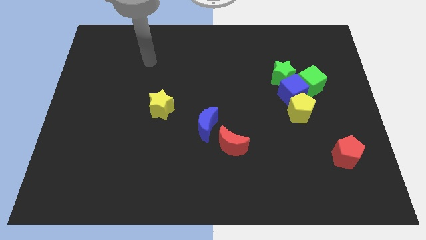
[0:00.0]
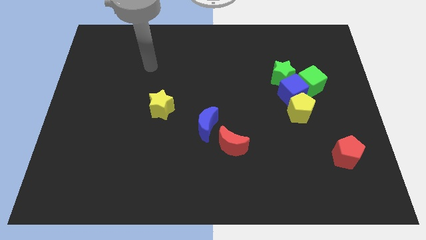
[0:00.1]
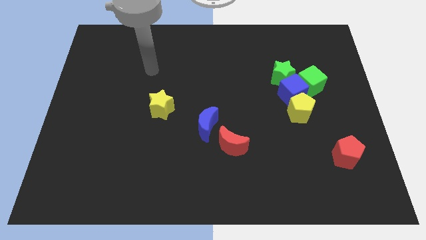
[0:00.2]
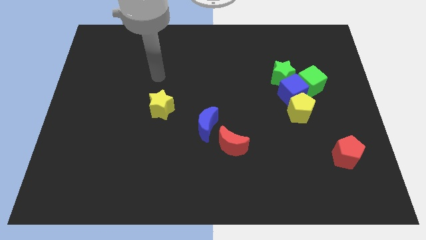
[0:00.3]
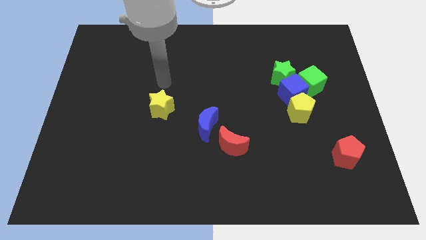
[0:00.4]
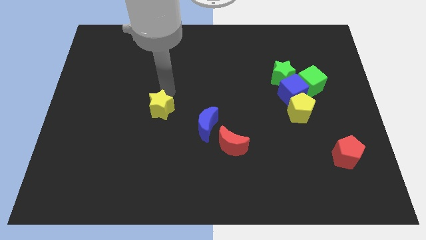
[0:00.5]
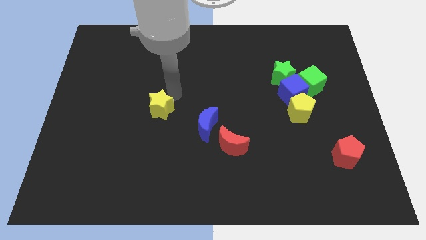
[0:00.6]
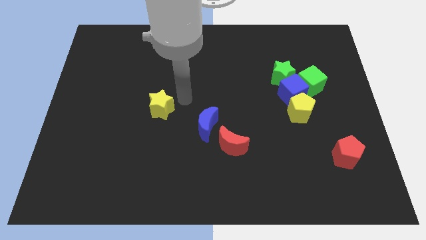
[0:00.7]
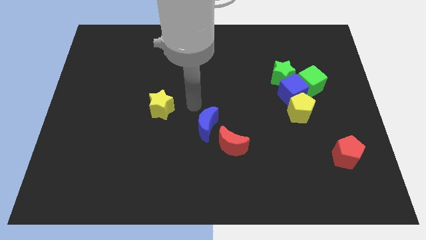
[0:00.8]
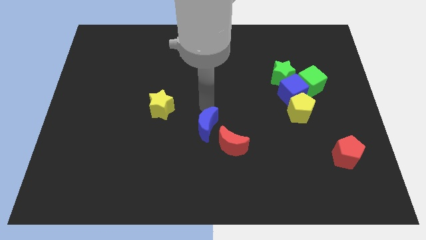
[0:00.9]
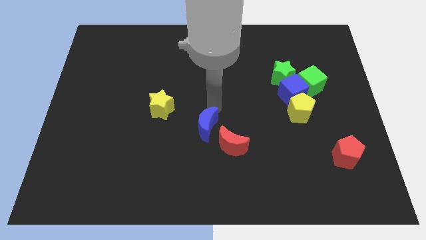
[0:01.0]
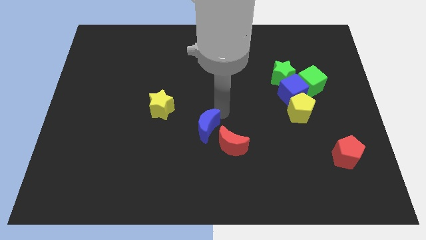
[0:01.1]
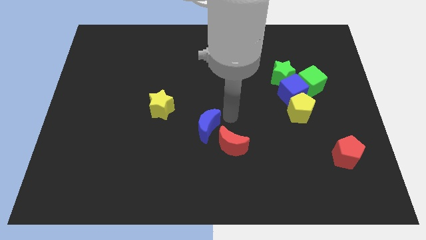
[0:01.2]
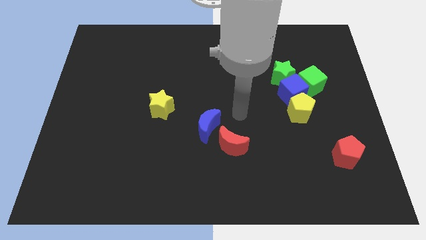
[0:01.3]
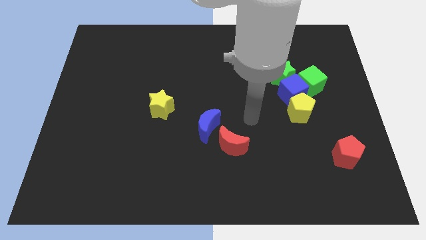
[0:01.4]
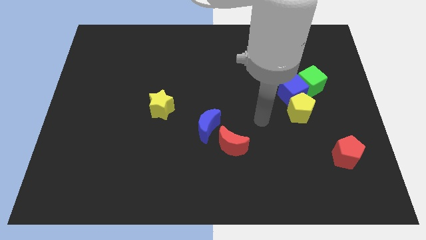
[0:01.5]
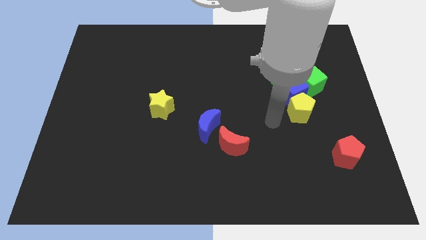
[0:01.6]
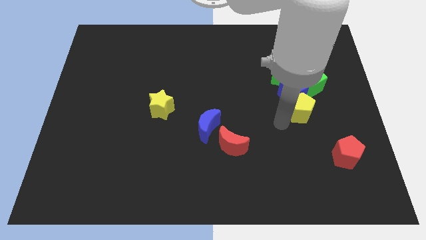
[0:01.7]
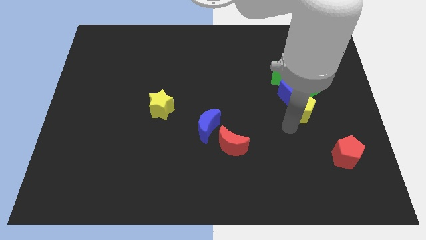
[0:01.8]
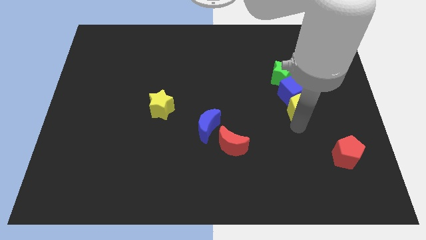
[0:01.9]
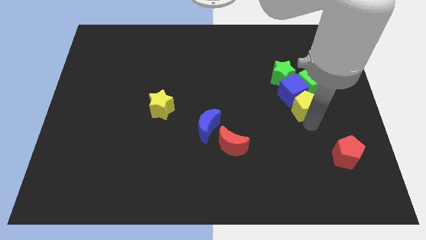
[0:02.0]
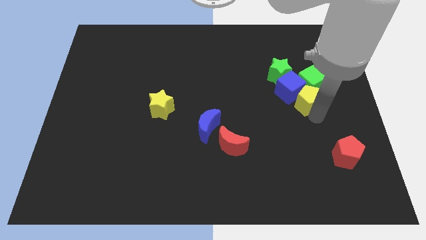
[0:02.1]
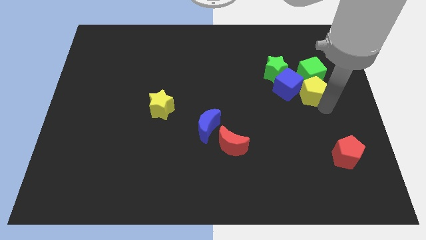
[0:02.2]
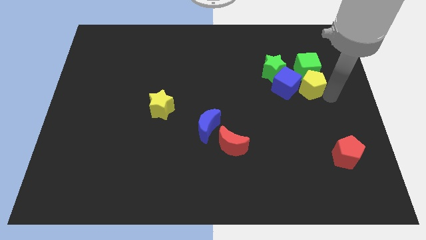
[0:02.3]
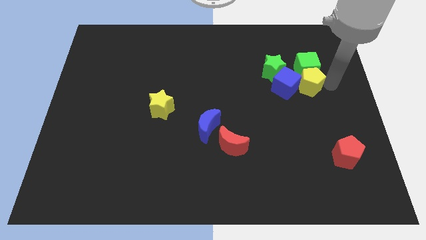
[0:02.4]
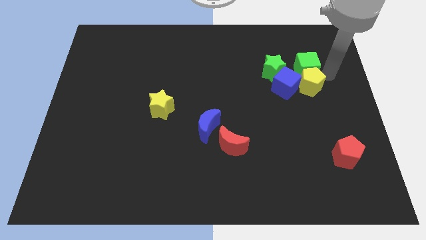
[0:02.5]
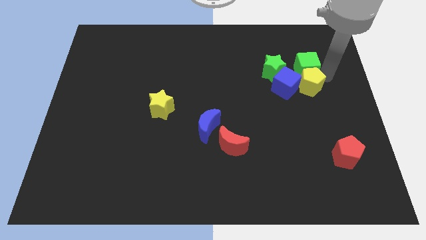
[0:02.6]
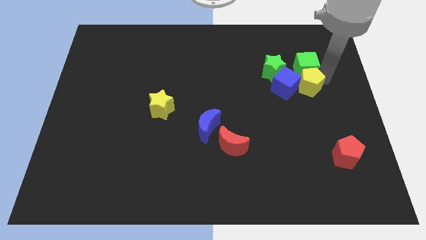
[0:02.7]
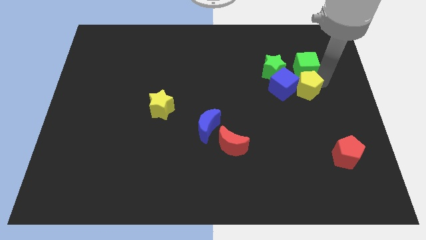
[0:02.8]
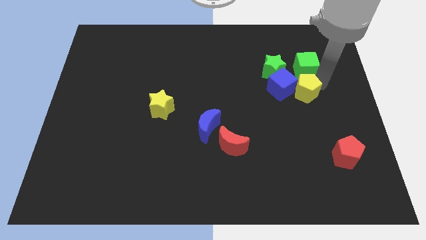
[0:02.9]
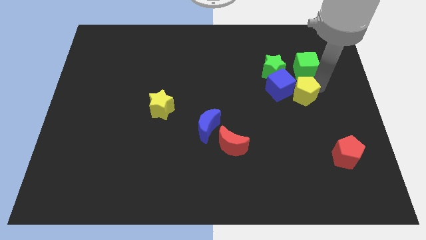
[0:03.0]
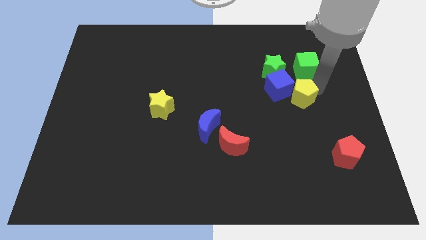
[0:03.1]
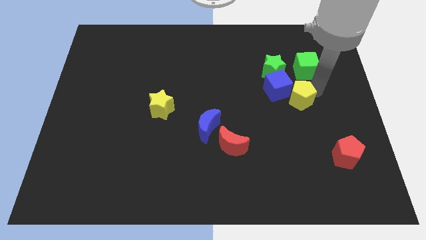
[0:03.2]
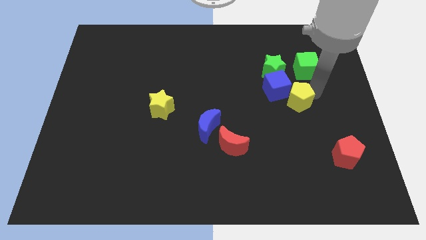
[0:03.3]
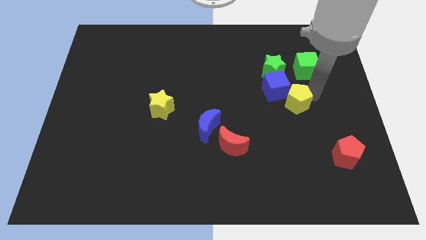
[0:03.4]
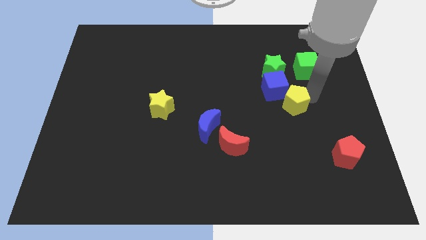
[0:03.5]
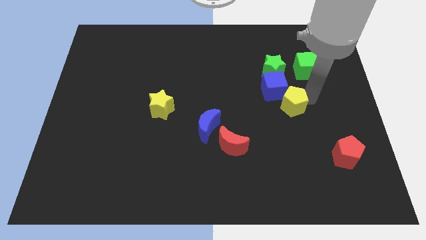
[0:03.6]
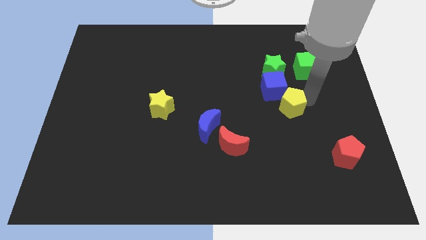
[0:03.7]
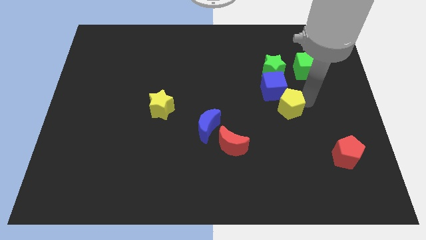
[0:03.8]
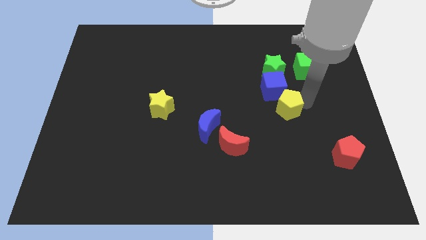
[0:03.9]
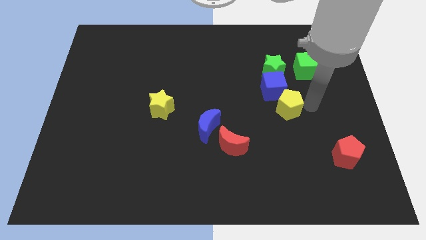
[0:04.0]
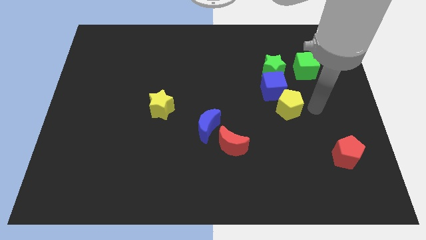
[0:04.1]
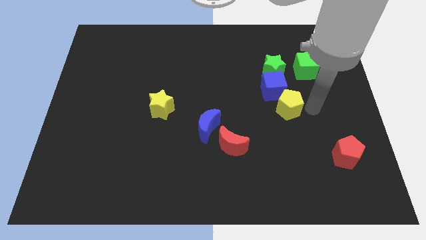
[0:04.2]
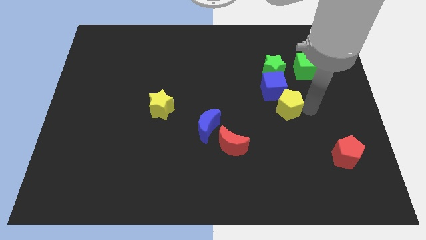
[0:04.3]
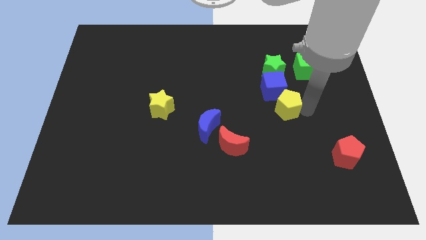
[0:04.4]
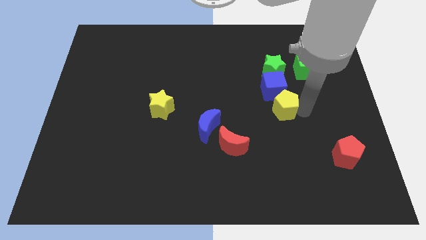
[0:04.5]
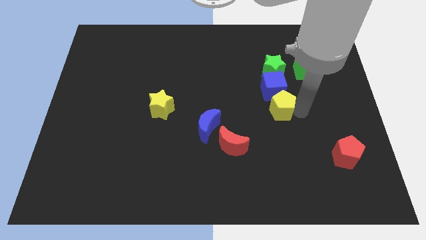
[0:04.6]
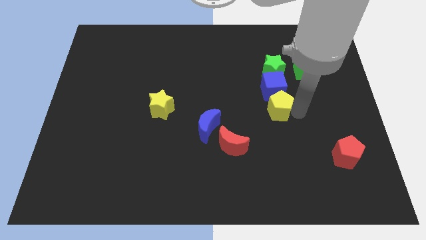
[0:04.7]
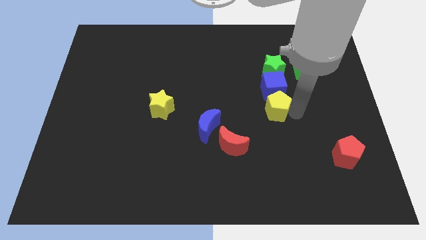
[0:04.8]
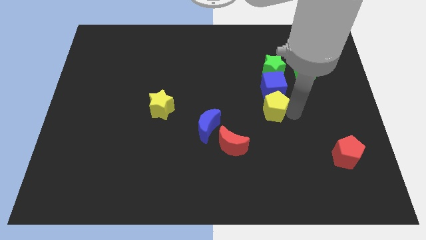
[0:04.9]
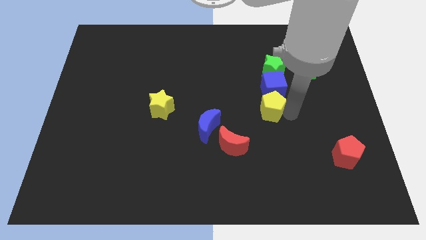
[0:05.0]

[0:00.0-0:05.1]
move the yellow pentagon a little bit left

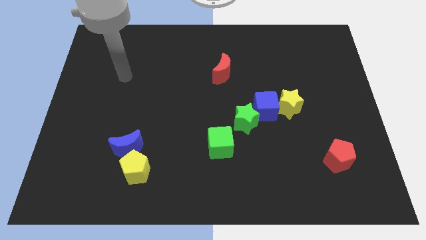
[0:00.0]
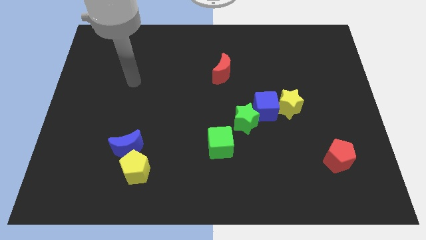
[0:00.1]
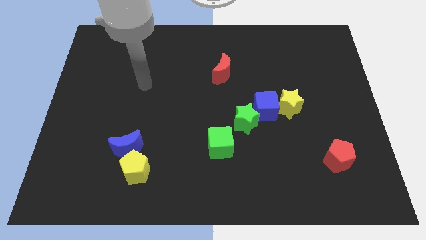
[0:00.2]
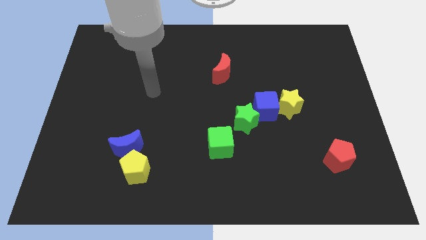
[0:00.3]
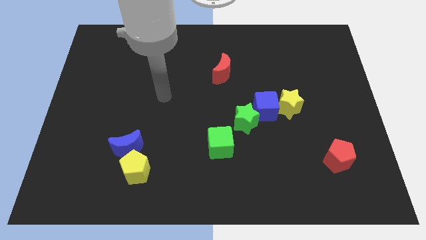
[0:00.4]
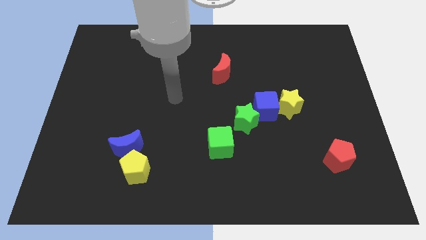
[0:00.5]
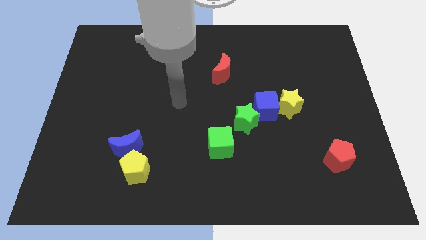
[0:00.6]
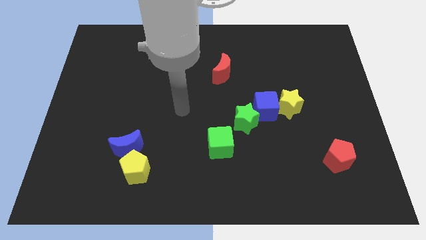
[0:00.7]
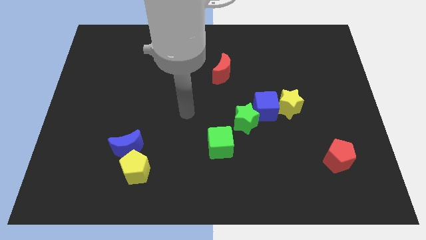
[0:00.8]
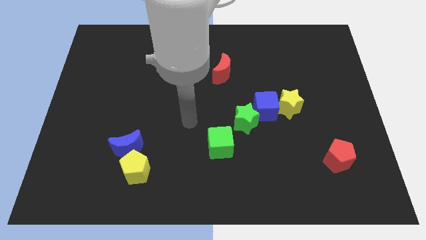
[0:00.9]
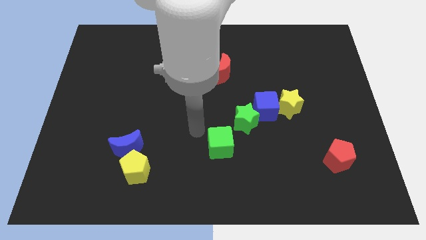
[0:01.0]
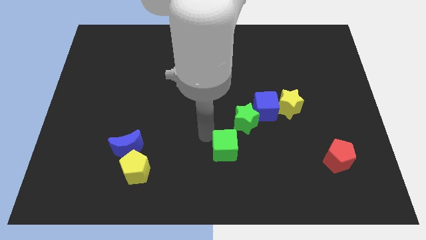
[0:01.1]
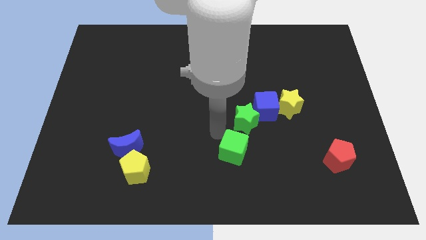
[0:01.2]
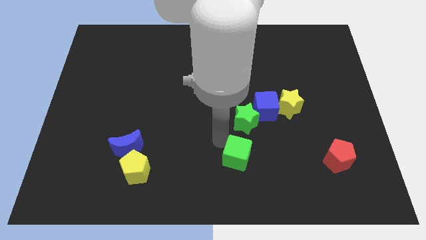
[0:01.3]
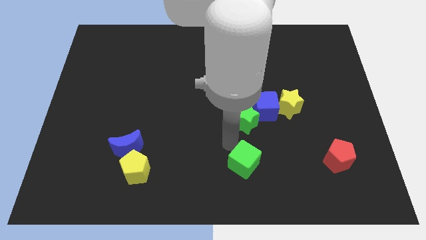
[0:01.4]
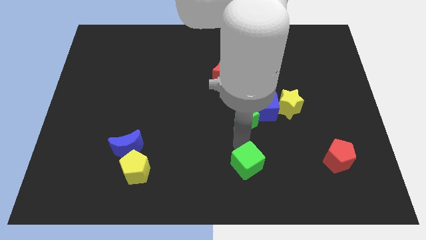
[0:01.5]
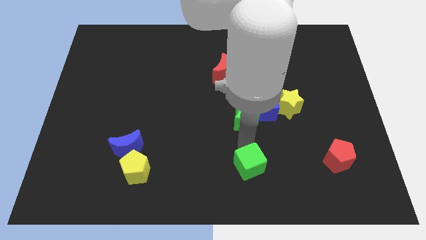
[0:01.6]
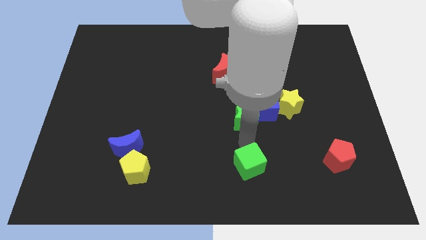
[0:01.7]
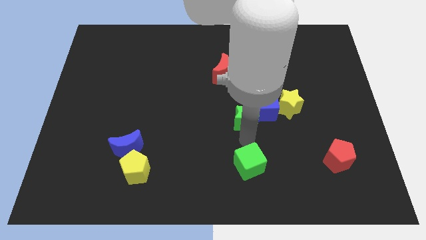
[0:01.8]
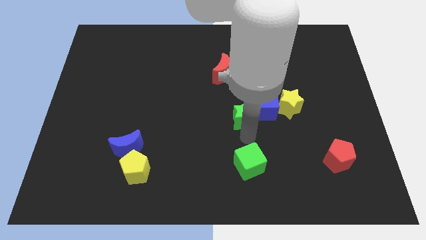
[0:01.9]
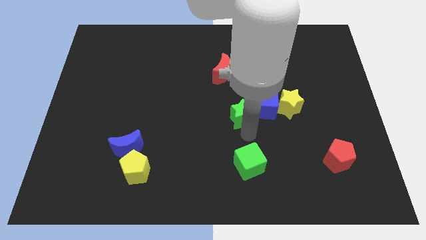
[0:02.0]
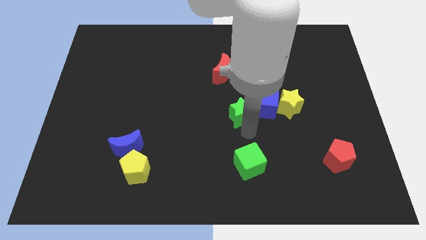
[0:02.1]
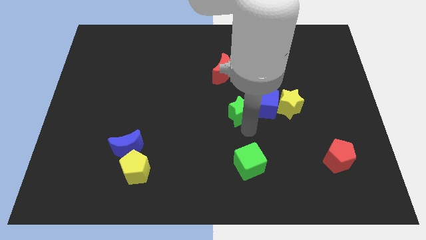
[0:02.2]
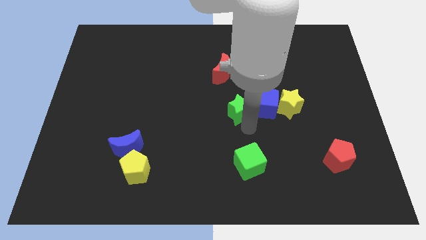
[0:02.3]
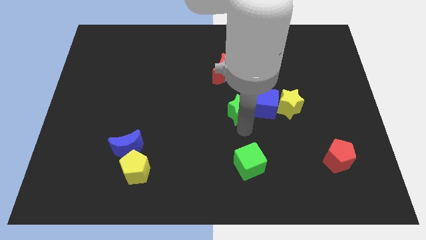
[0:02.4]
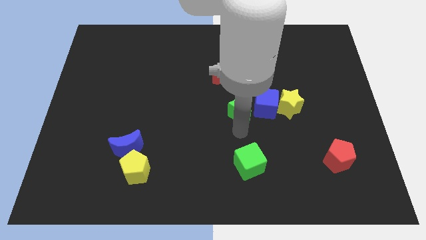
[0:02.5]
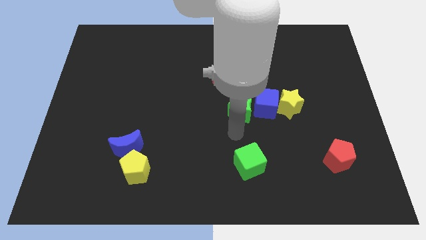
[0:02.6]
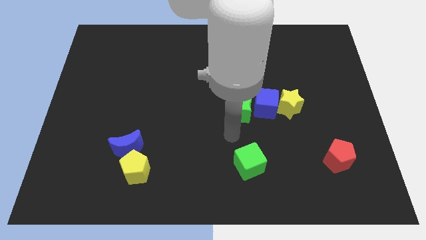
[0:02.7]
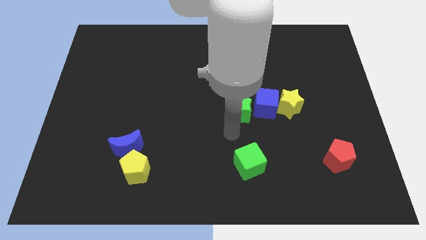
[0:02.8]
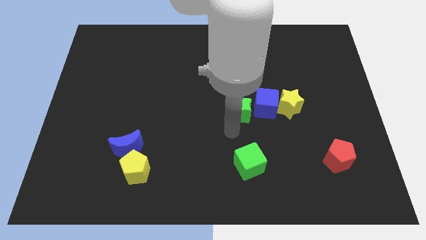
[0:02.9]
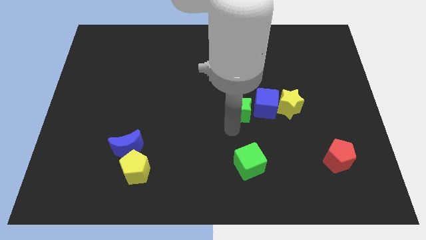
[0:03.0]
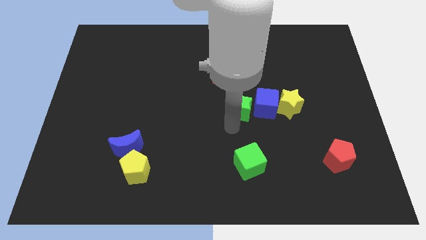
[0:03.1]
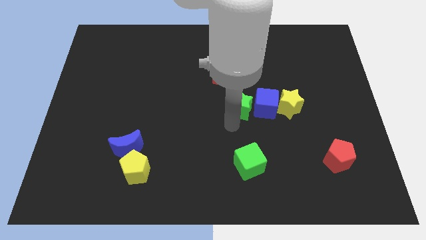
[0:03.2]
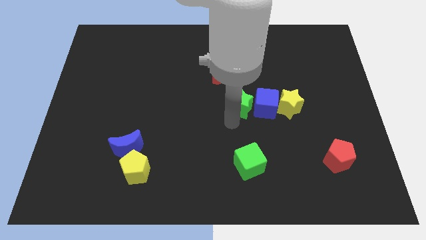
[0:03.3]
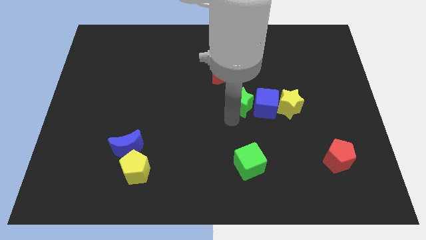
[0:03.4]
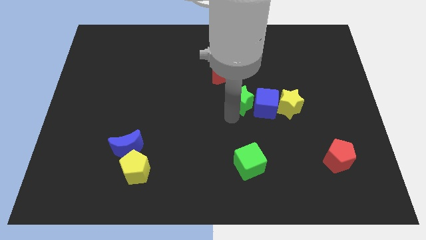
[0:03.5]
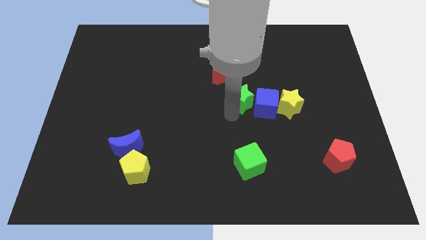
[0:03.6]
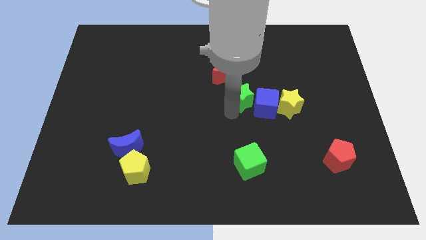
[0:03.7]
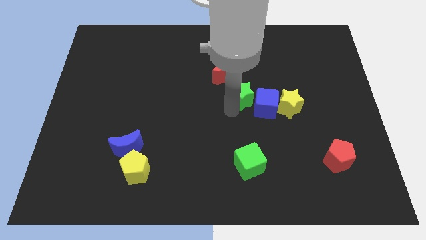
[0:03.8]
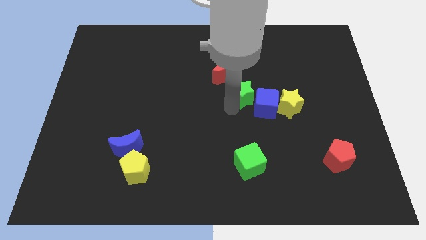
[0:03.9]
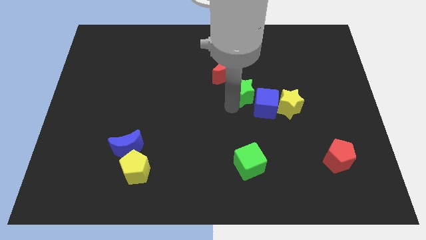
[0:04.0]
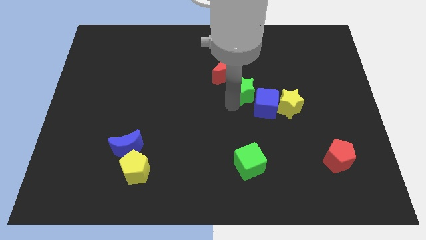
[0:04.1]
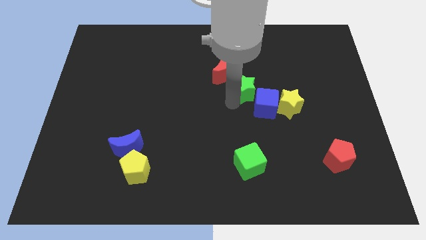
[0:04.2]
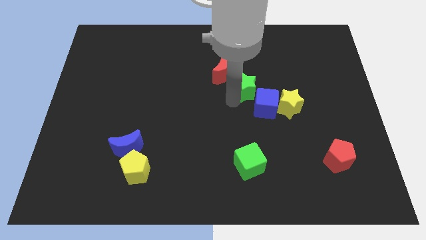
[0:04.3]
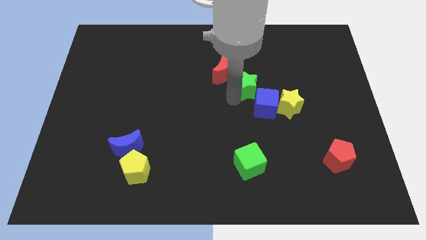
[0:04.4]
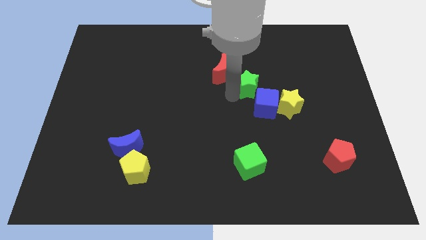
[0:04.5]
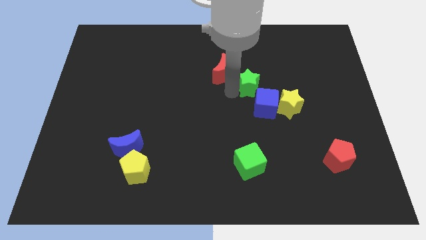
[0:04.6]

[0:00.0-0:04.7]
slide the green star a little bit up and to the right diagonally
